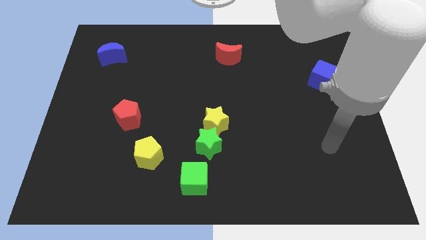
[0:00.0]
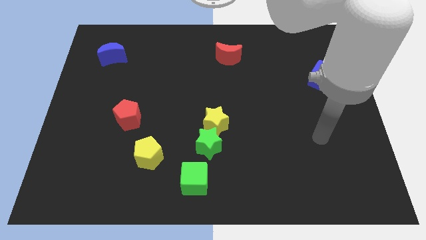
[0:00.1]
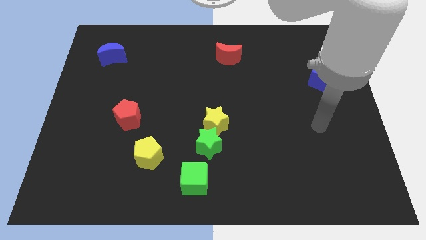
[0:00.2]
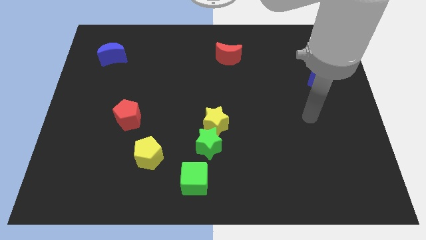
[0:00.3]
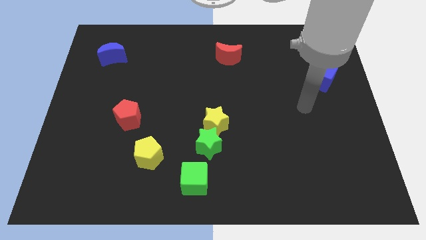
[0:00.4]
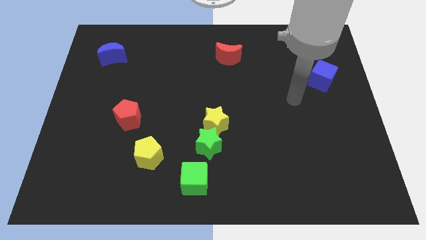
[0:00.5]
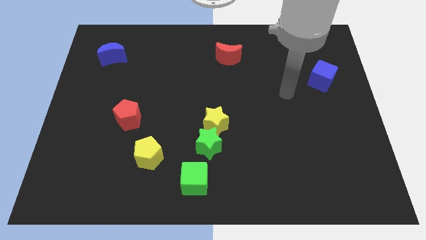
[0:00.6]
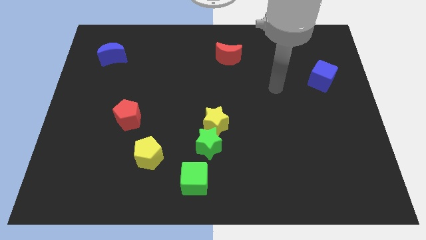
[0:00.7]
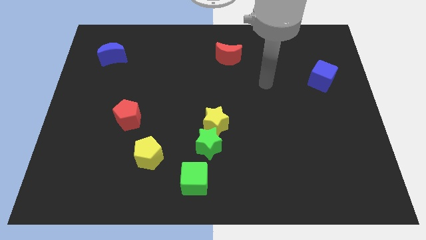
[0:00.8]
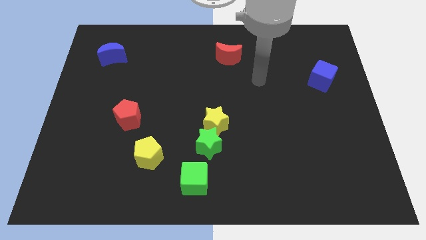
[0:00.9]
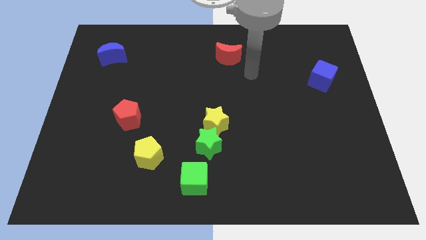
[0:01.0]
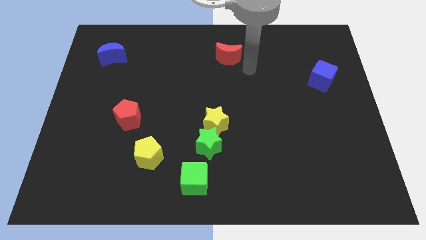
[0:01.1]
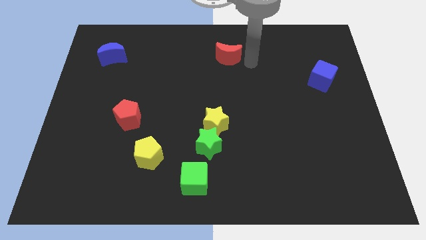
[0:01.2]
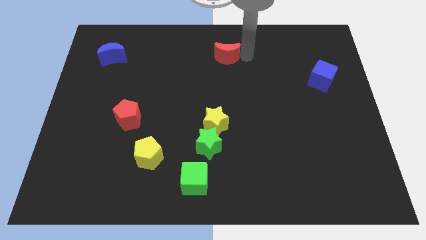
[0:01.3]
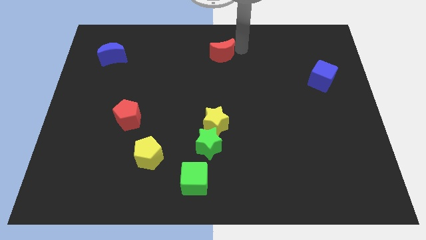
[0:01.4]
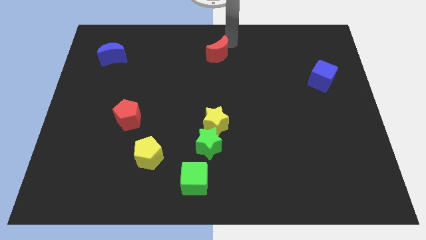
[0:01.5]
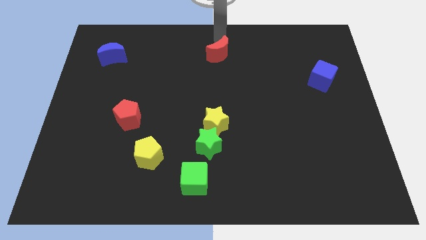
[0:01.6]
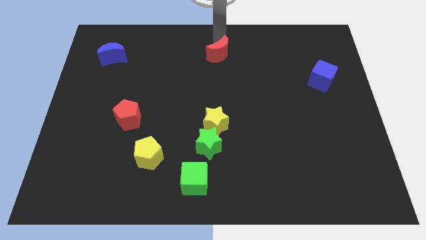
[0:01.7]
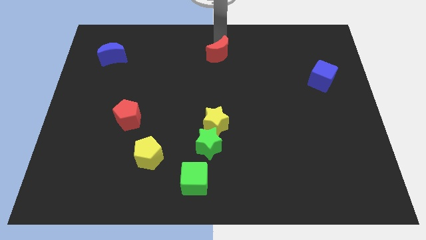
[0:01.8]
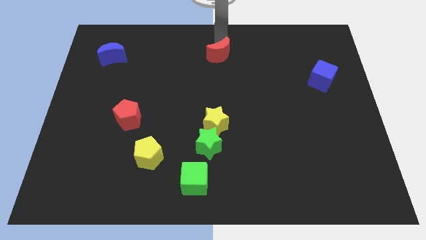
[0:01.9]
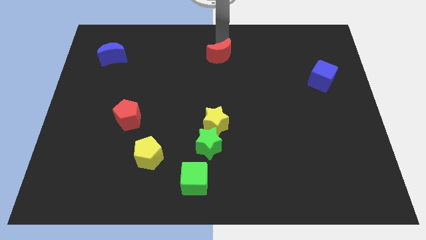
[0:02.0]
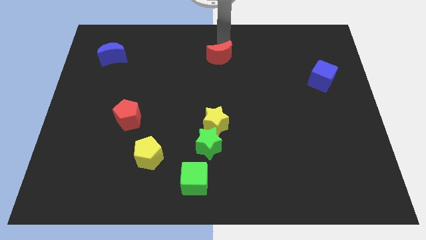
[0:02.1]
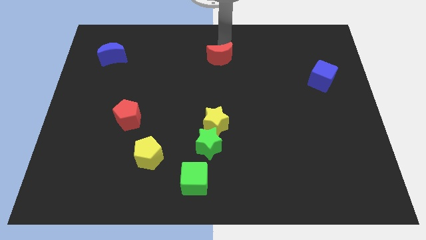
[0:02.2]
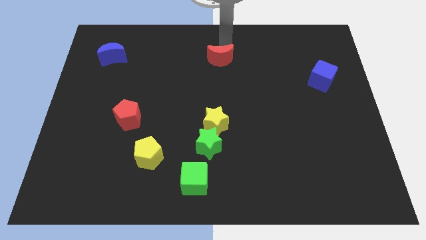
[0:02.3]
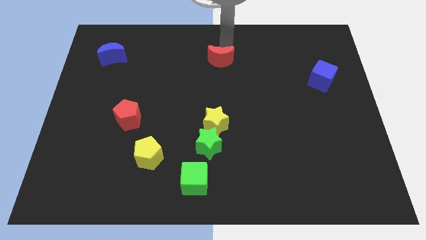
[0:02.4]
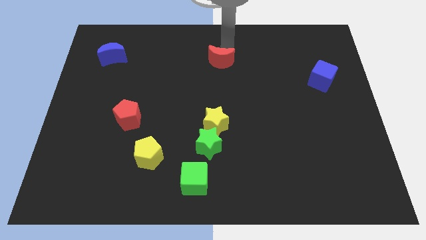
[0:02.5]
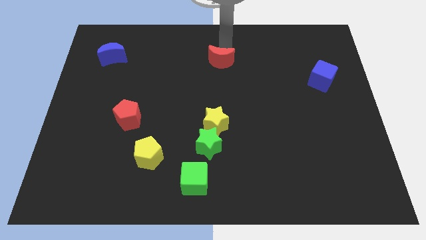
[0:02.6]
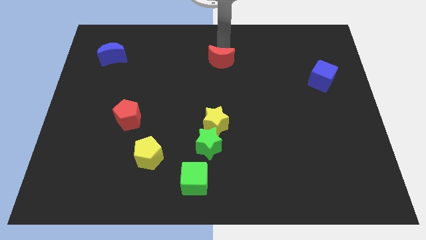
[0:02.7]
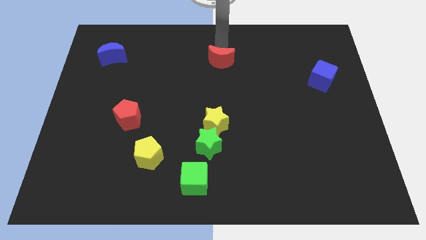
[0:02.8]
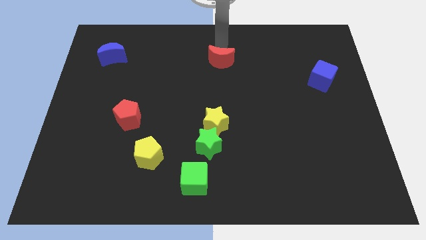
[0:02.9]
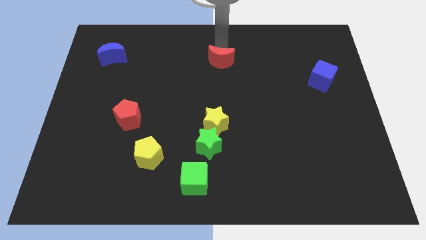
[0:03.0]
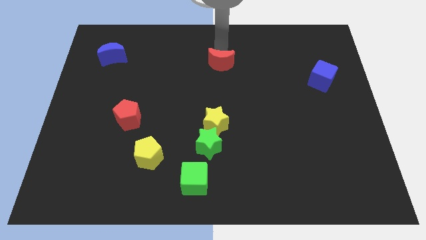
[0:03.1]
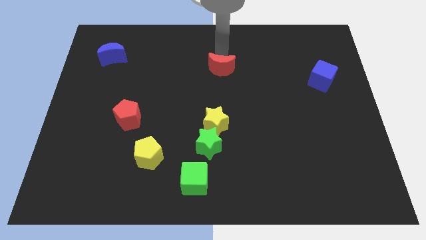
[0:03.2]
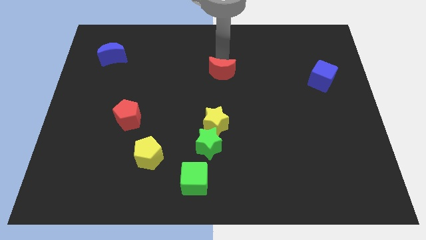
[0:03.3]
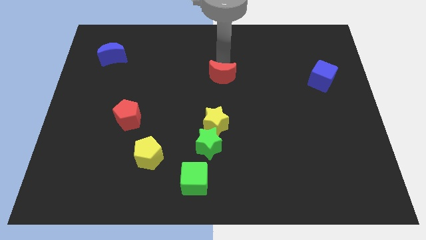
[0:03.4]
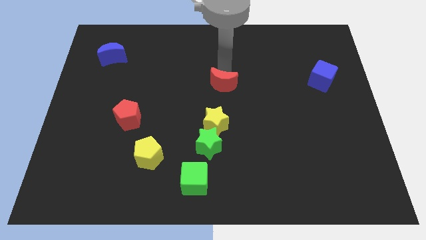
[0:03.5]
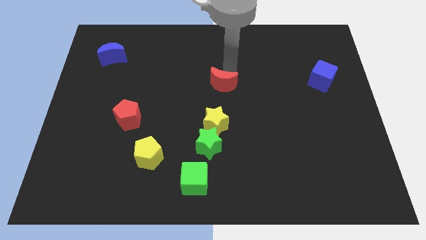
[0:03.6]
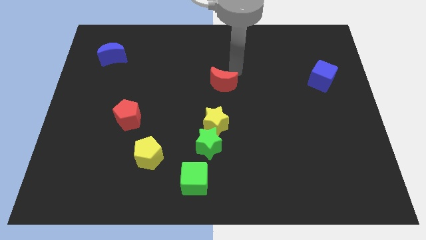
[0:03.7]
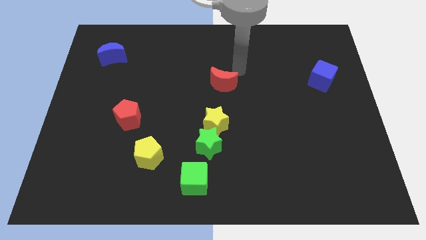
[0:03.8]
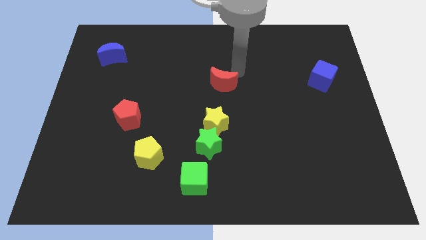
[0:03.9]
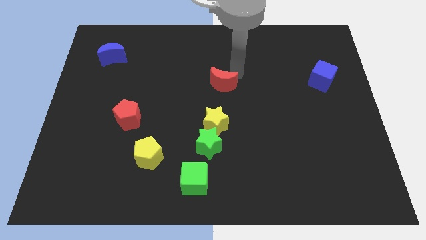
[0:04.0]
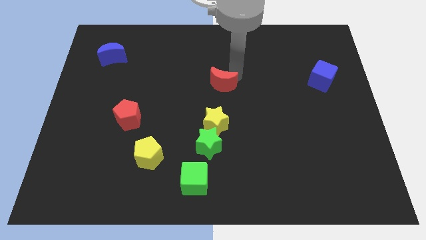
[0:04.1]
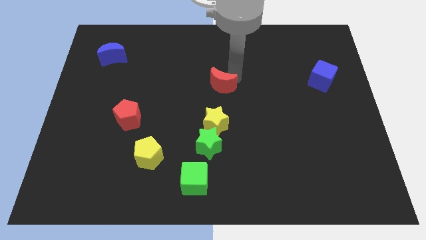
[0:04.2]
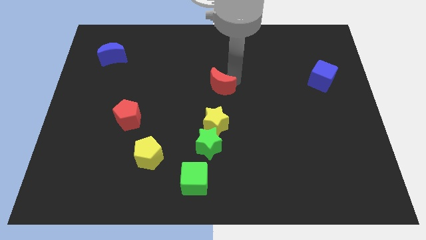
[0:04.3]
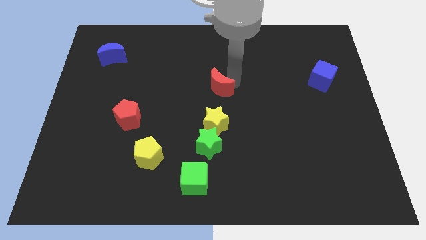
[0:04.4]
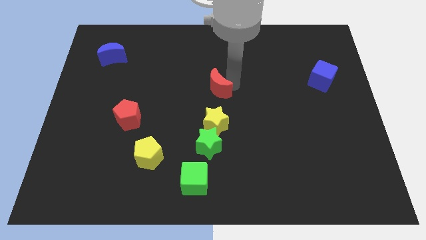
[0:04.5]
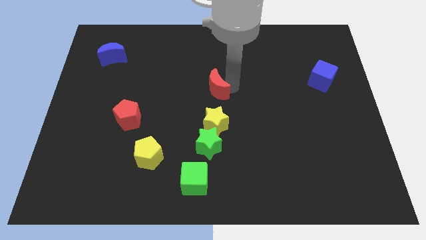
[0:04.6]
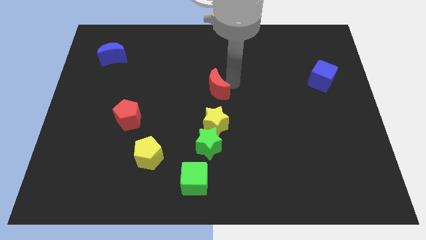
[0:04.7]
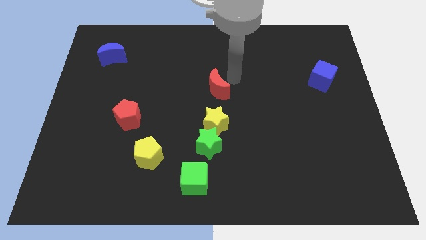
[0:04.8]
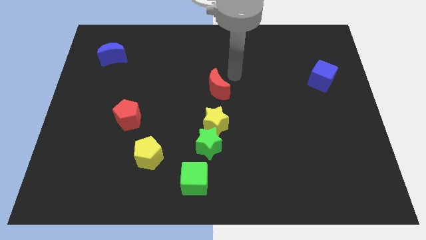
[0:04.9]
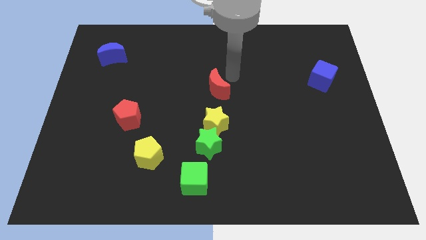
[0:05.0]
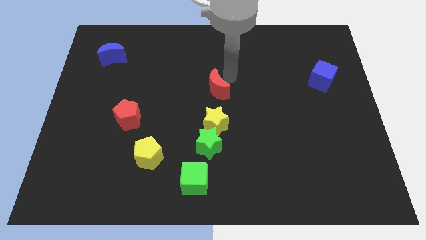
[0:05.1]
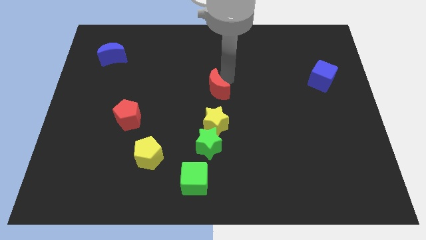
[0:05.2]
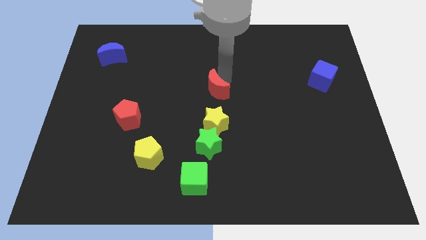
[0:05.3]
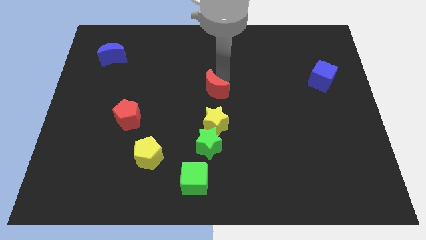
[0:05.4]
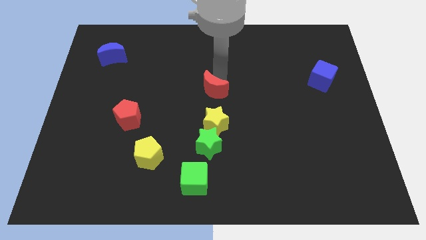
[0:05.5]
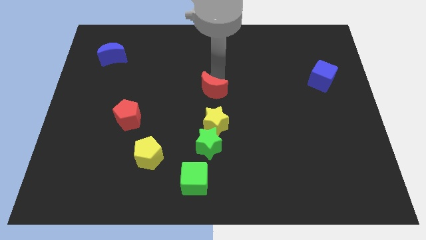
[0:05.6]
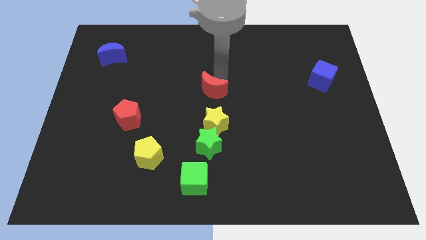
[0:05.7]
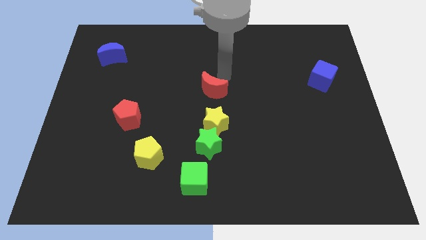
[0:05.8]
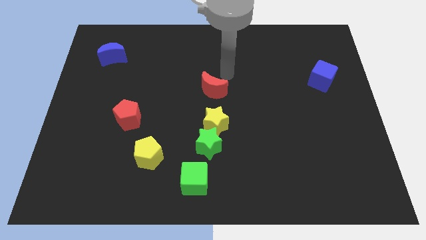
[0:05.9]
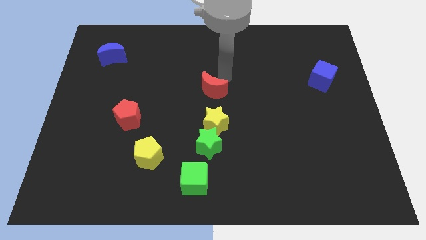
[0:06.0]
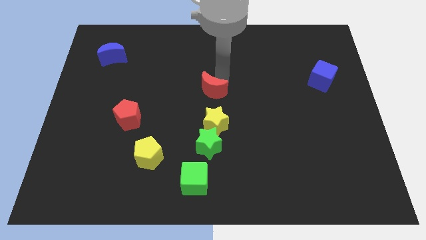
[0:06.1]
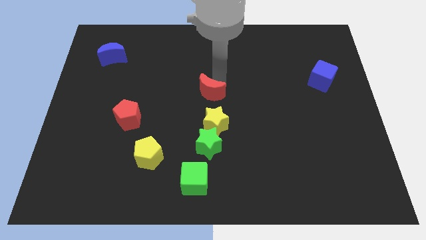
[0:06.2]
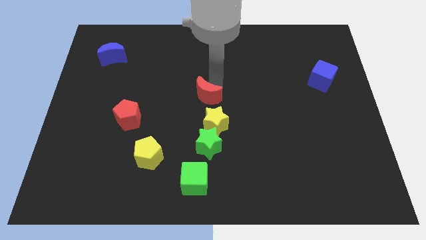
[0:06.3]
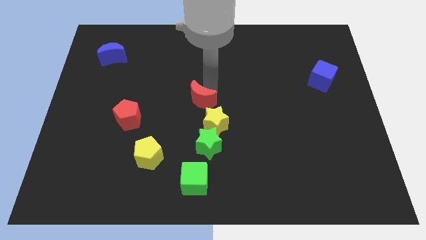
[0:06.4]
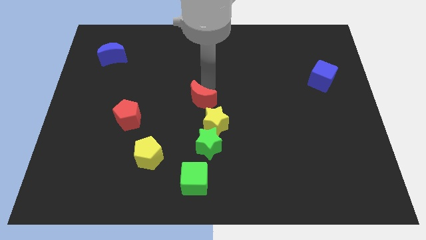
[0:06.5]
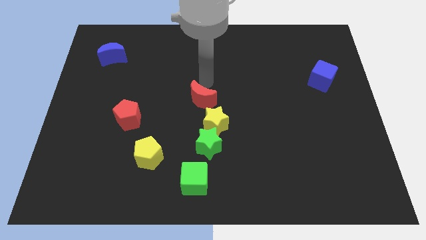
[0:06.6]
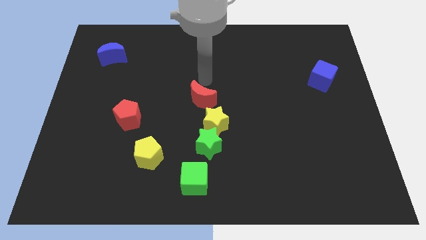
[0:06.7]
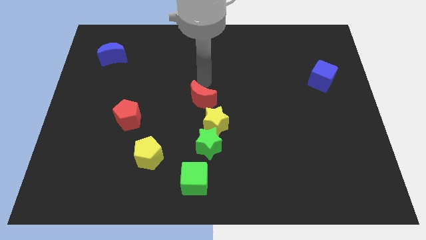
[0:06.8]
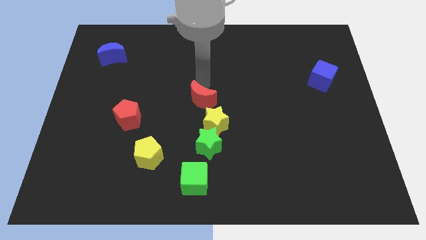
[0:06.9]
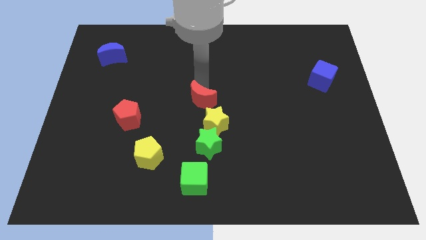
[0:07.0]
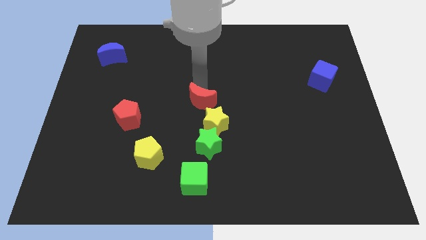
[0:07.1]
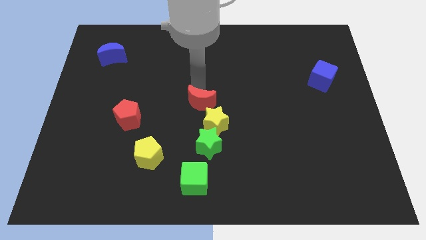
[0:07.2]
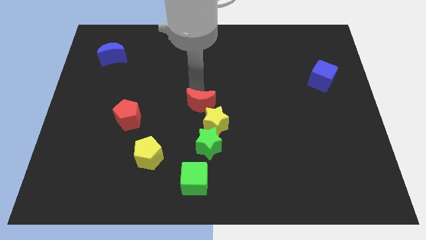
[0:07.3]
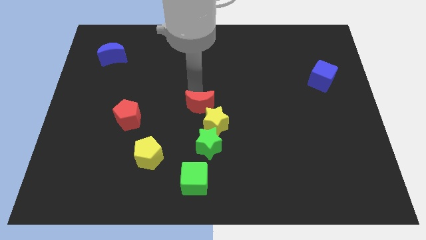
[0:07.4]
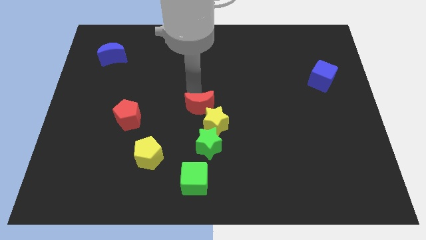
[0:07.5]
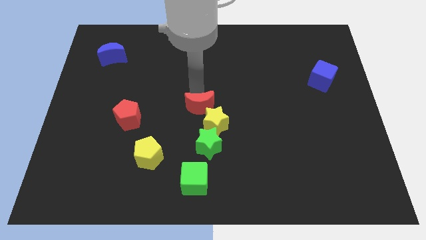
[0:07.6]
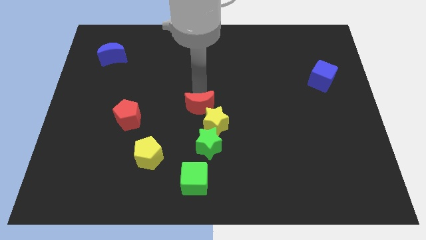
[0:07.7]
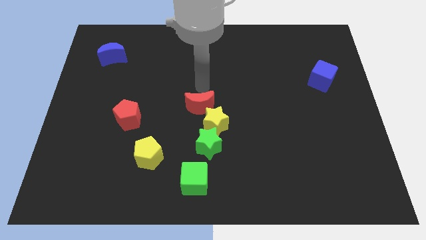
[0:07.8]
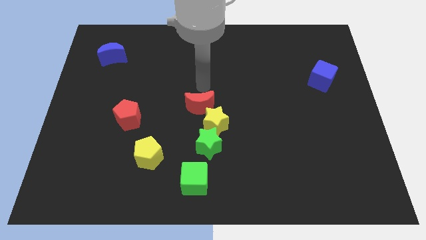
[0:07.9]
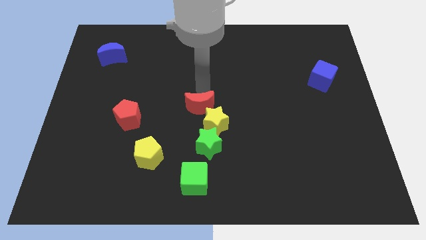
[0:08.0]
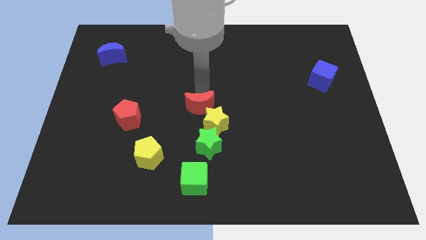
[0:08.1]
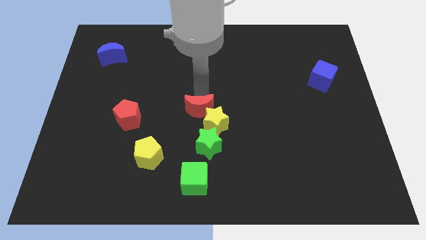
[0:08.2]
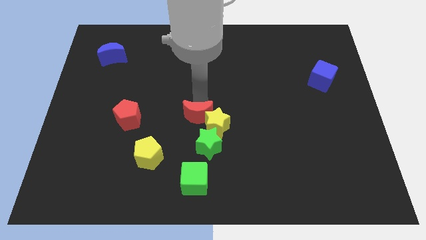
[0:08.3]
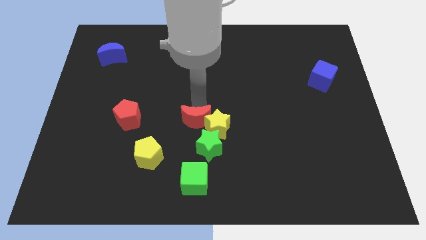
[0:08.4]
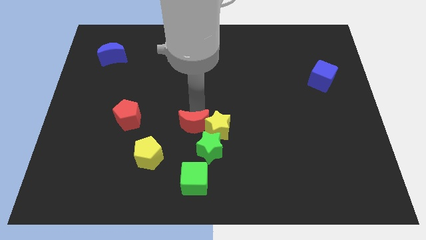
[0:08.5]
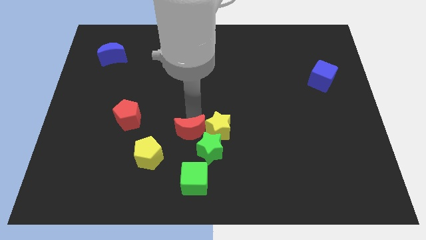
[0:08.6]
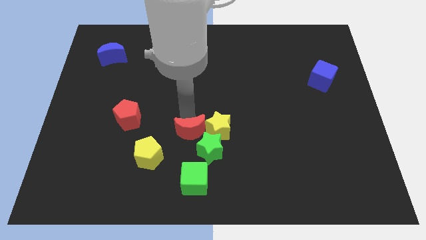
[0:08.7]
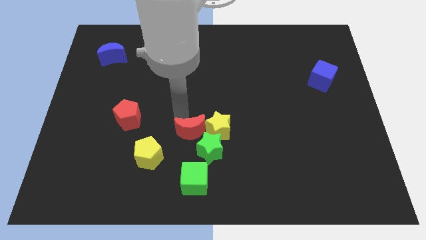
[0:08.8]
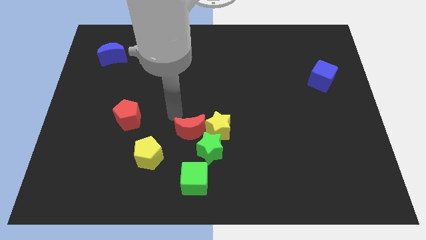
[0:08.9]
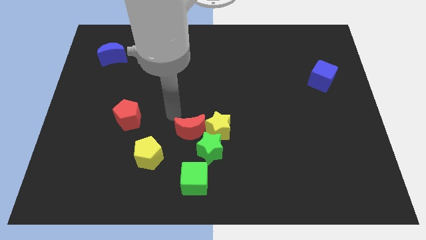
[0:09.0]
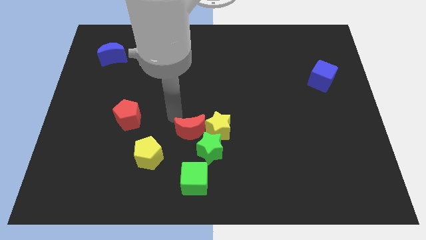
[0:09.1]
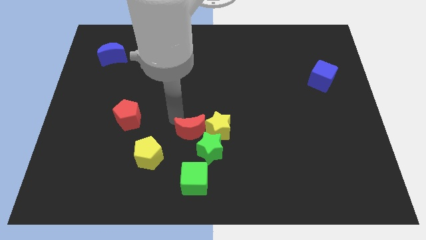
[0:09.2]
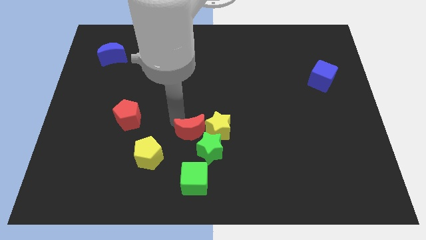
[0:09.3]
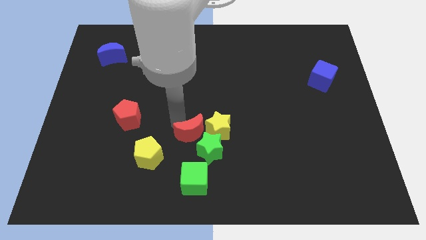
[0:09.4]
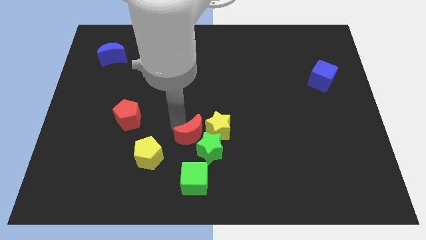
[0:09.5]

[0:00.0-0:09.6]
put the red moon to the green star
